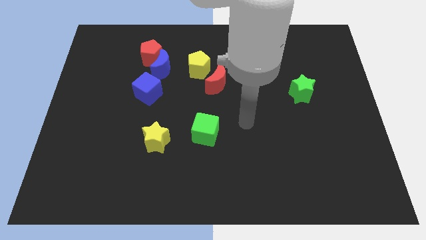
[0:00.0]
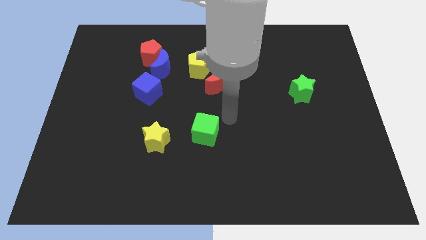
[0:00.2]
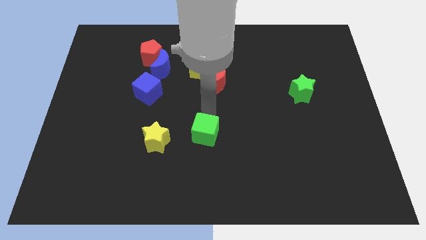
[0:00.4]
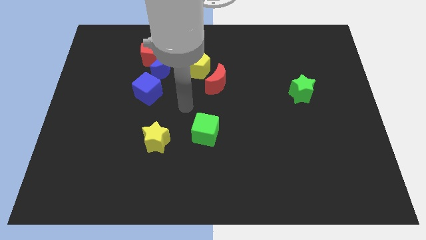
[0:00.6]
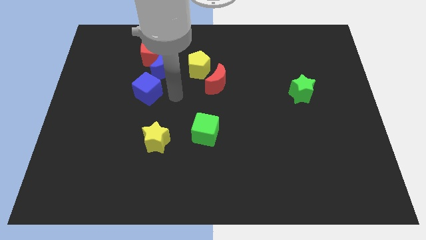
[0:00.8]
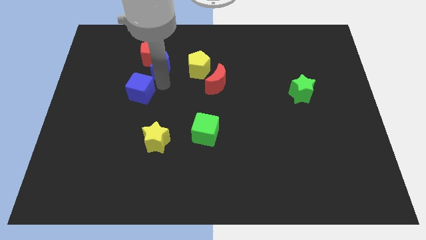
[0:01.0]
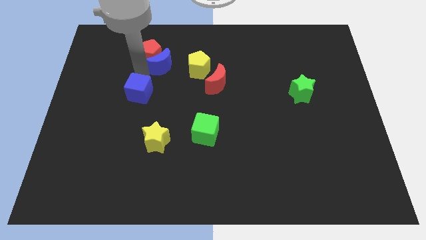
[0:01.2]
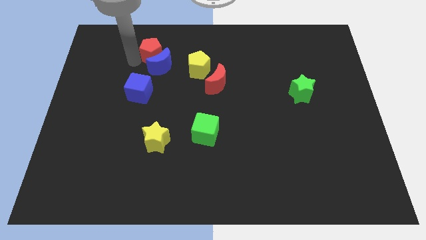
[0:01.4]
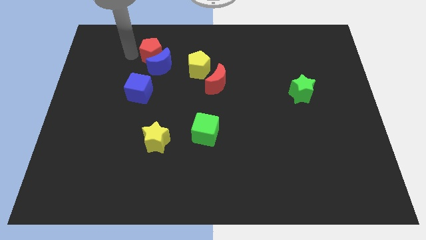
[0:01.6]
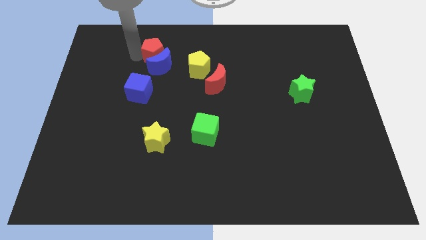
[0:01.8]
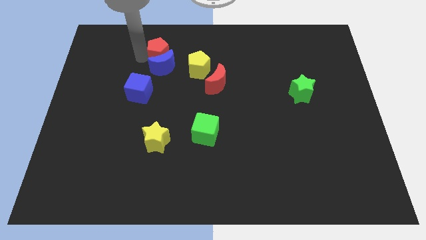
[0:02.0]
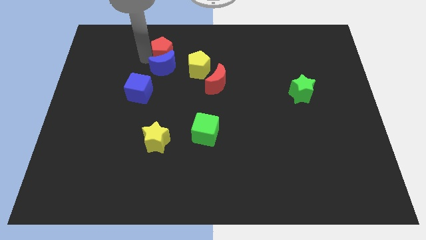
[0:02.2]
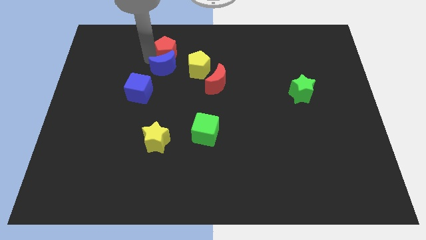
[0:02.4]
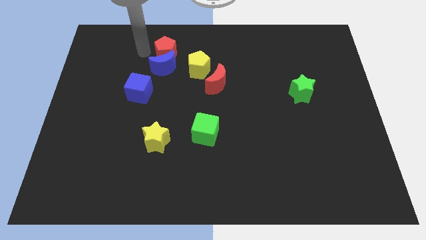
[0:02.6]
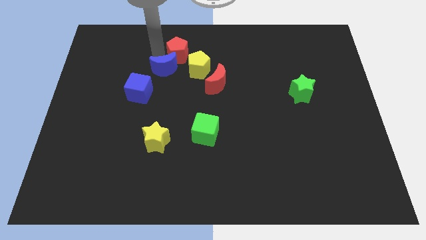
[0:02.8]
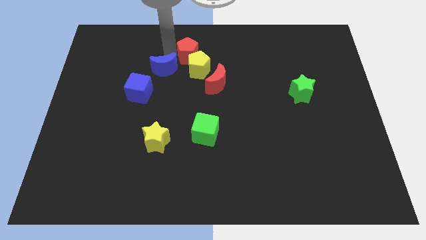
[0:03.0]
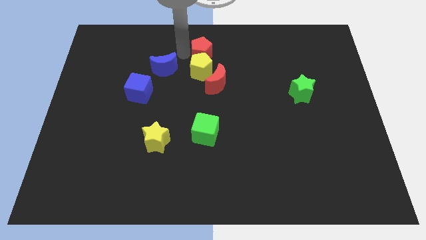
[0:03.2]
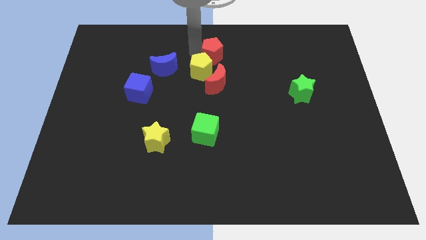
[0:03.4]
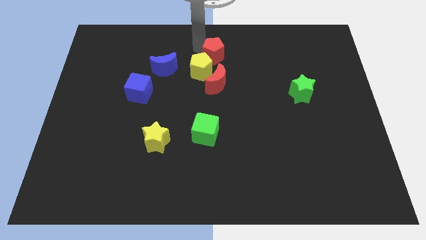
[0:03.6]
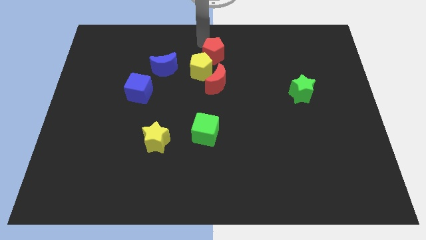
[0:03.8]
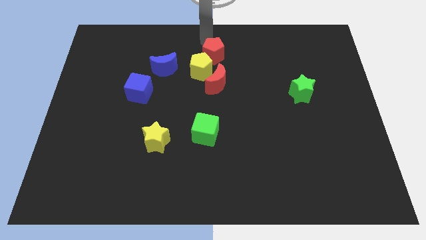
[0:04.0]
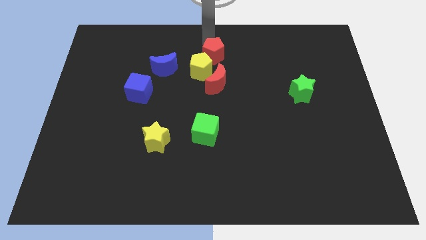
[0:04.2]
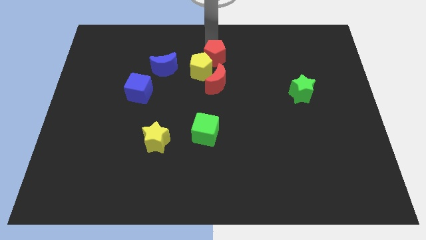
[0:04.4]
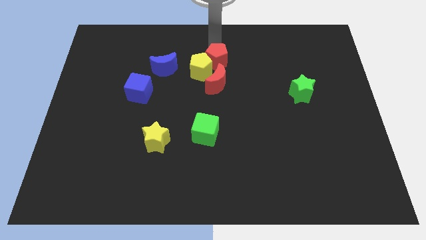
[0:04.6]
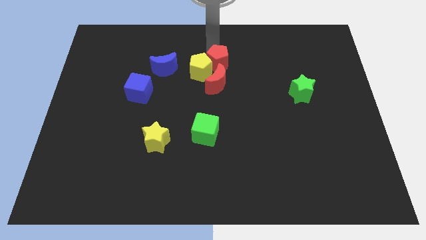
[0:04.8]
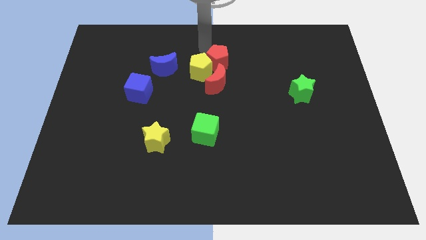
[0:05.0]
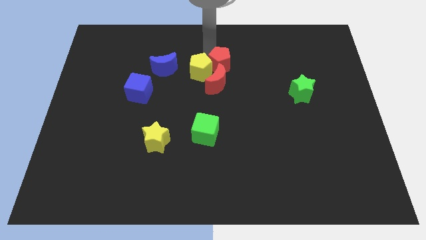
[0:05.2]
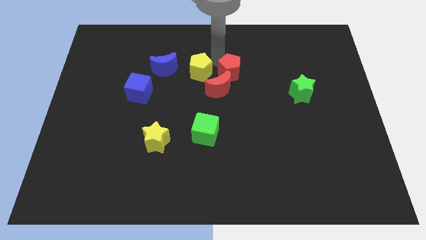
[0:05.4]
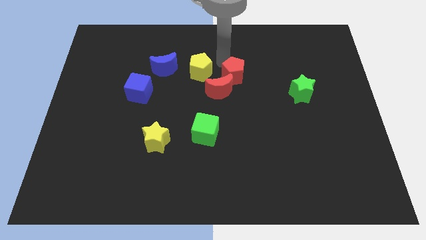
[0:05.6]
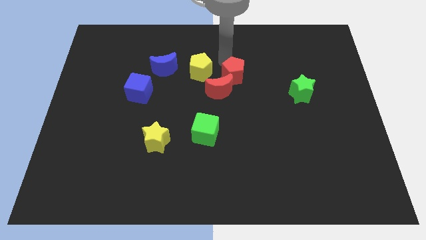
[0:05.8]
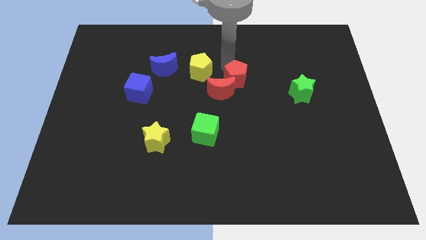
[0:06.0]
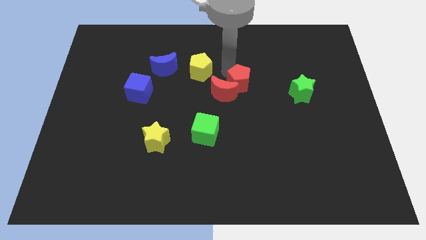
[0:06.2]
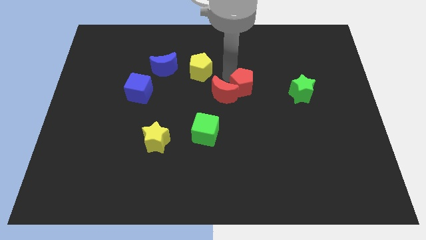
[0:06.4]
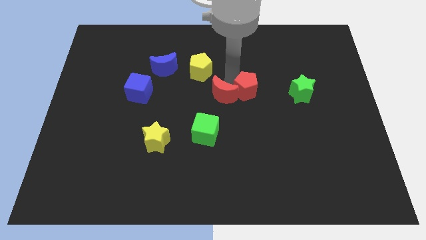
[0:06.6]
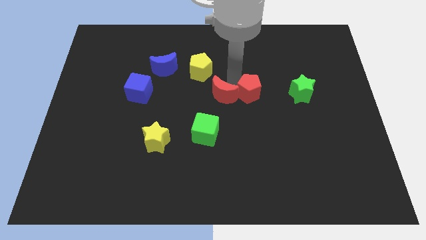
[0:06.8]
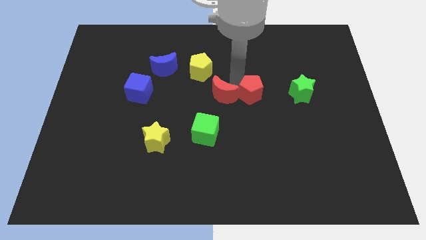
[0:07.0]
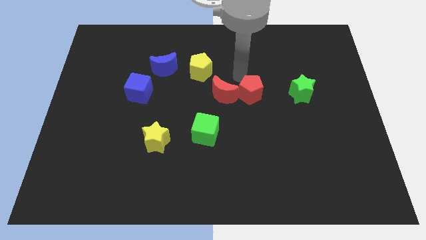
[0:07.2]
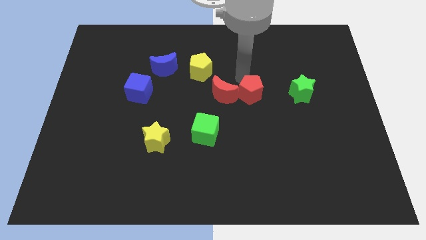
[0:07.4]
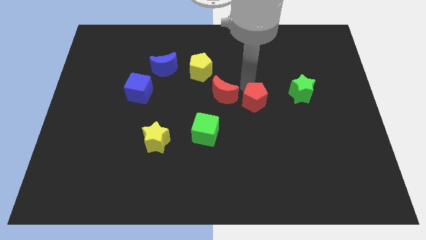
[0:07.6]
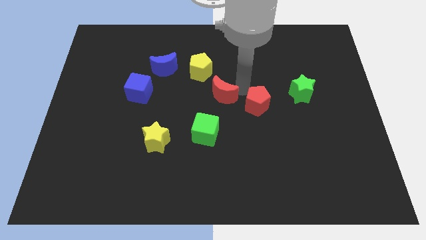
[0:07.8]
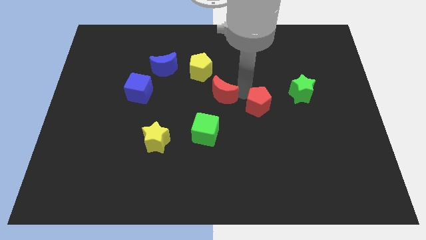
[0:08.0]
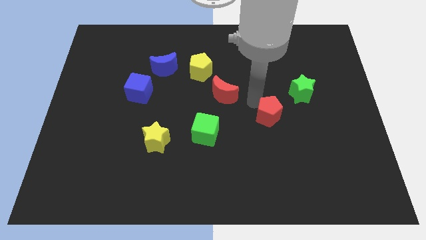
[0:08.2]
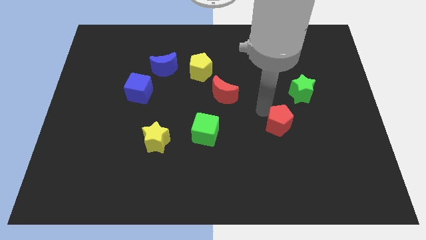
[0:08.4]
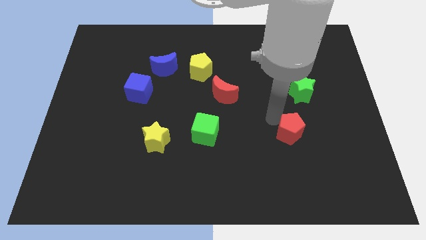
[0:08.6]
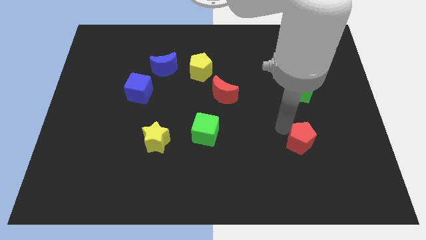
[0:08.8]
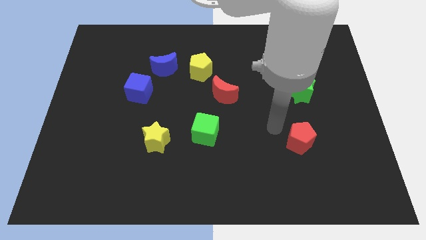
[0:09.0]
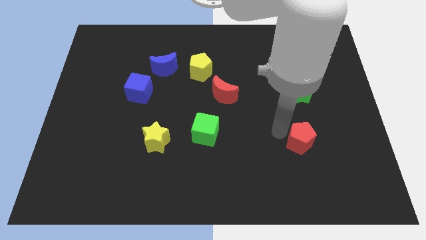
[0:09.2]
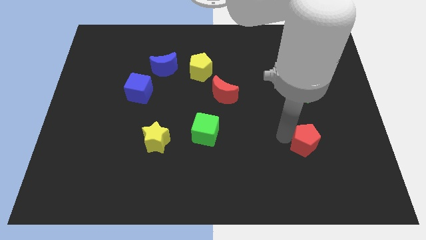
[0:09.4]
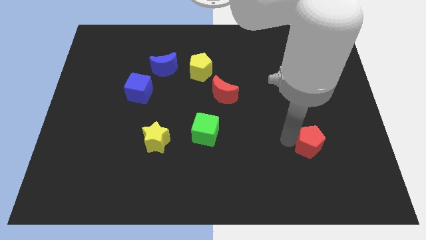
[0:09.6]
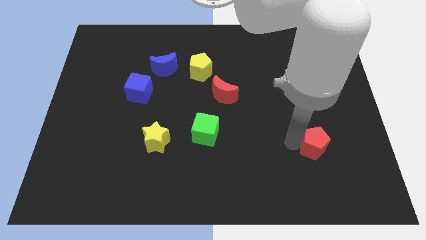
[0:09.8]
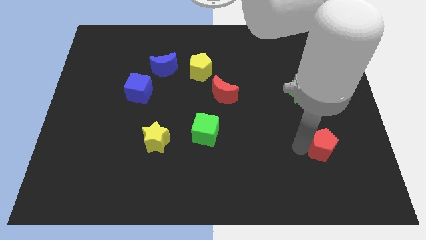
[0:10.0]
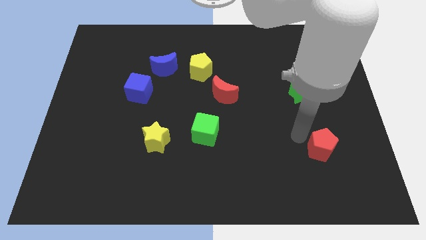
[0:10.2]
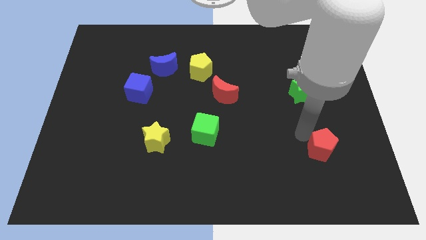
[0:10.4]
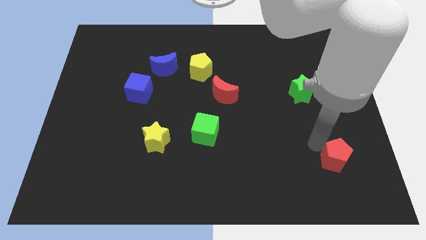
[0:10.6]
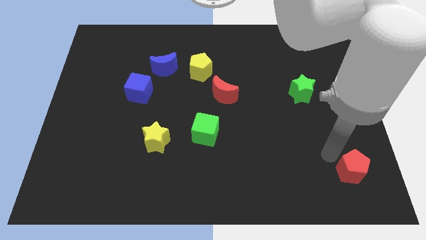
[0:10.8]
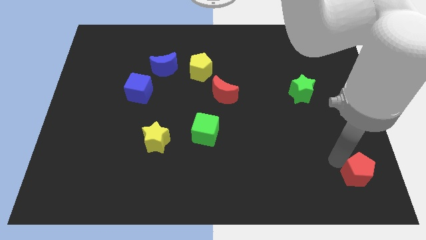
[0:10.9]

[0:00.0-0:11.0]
push the red pentagon to the bottom right of the board

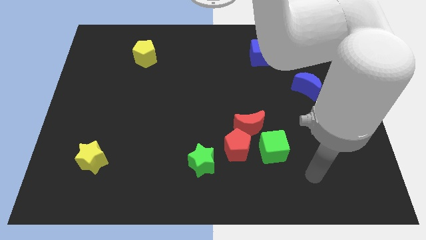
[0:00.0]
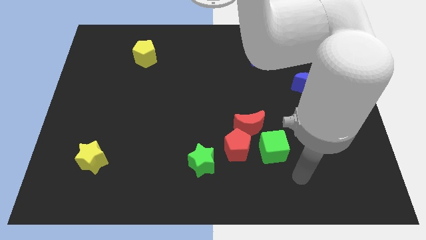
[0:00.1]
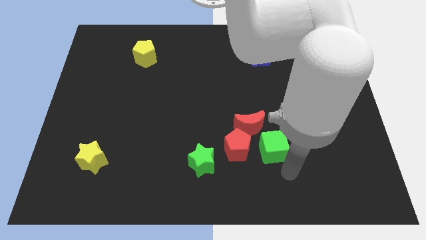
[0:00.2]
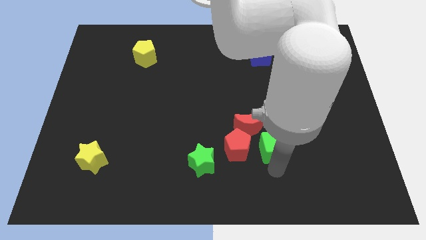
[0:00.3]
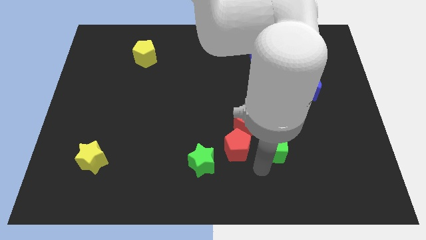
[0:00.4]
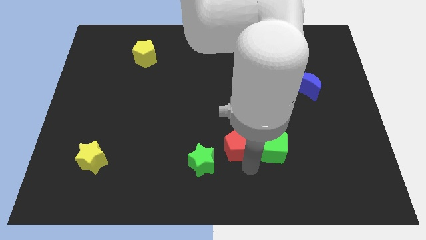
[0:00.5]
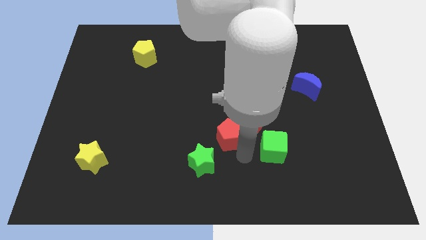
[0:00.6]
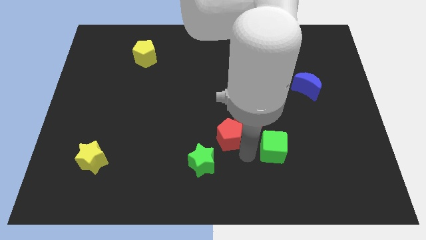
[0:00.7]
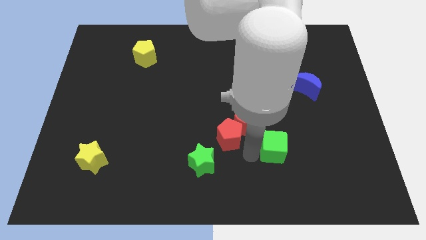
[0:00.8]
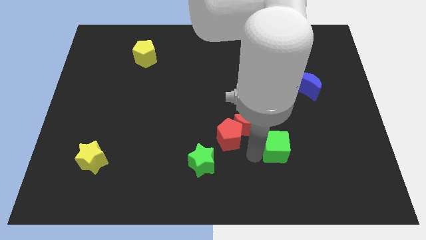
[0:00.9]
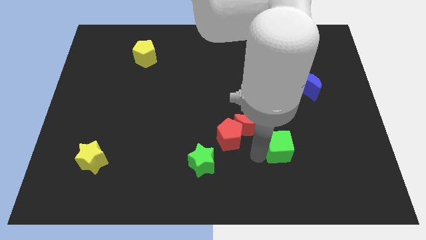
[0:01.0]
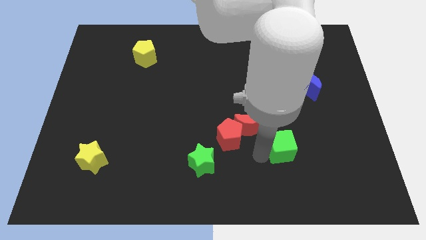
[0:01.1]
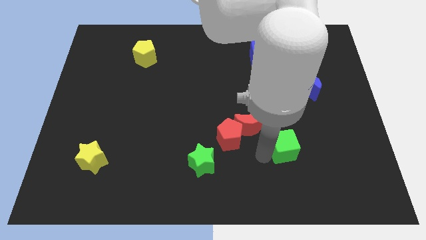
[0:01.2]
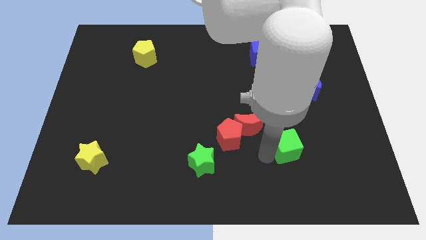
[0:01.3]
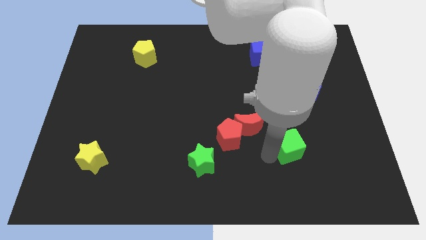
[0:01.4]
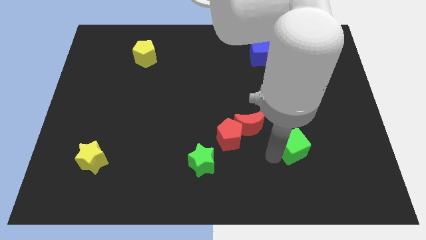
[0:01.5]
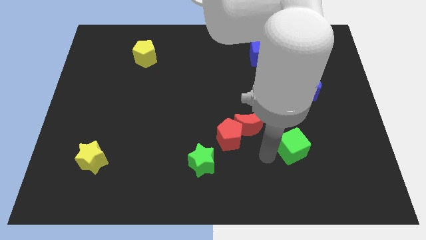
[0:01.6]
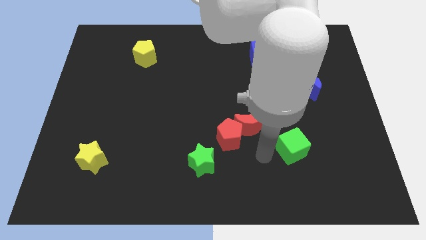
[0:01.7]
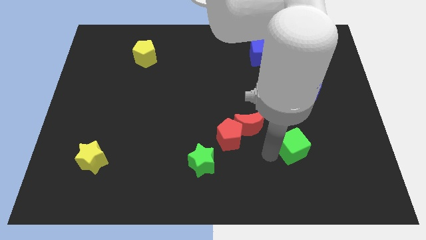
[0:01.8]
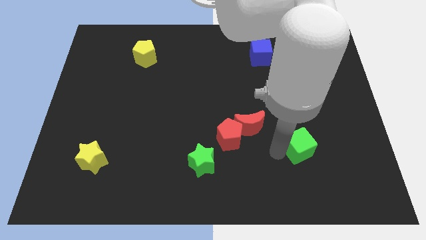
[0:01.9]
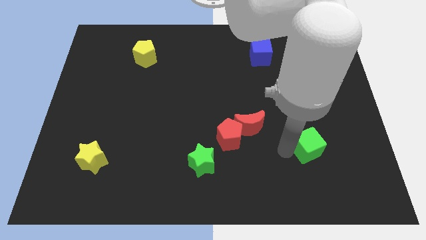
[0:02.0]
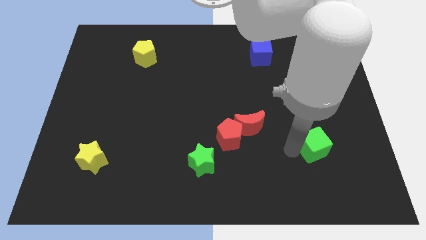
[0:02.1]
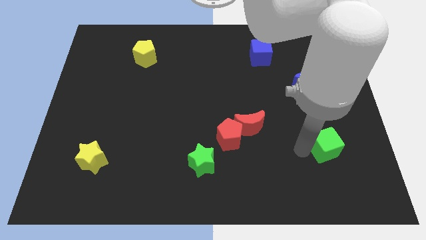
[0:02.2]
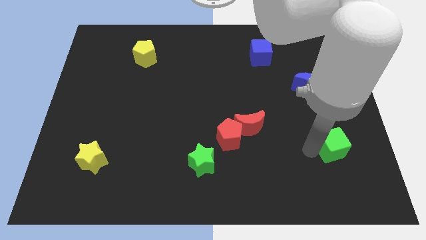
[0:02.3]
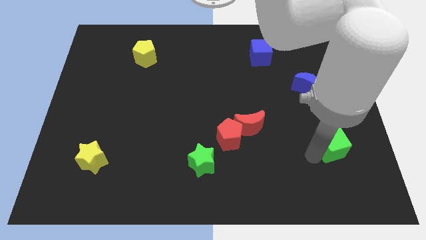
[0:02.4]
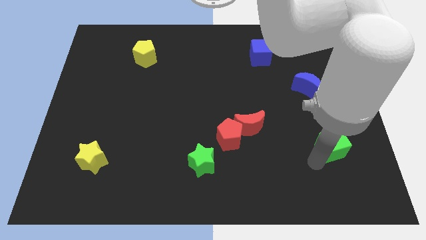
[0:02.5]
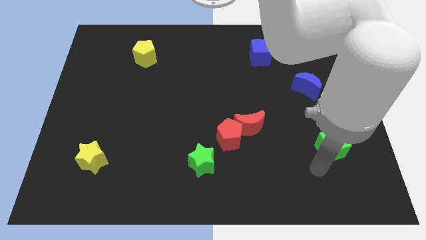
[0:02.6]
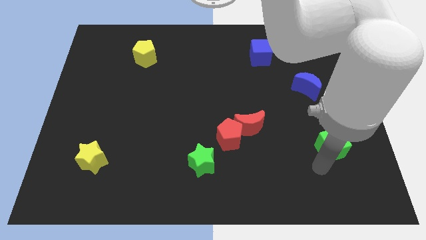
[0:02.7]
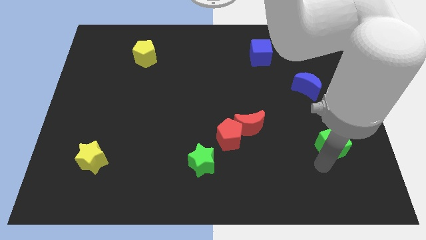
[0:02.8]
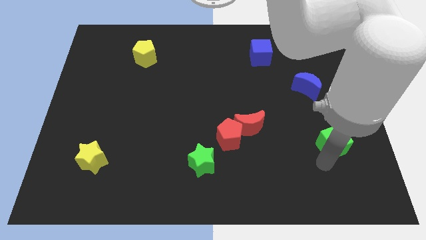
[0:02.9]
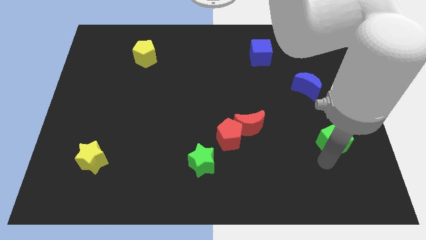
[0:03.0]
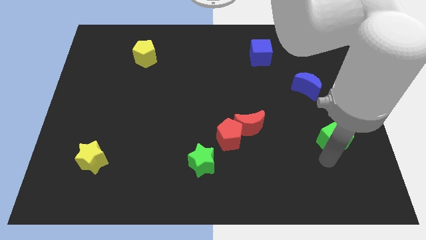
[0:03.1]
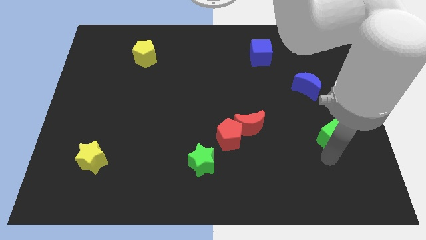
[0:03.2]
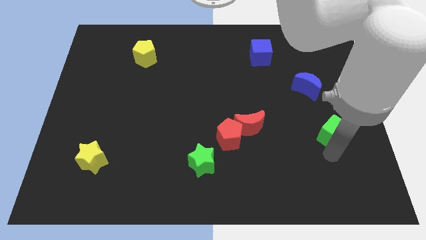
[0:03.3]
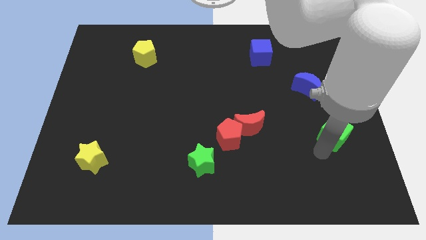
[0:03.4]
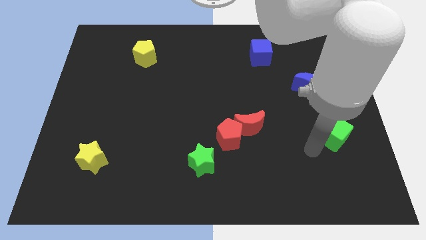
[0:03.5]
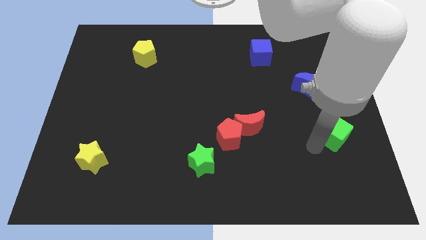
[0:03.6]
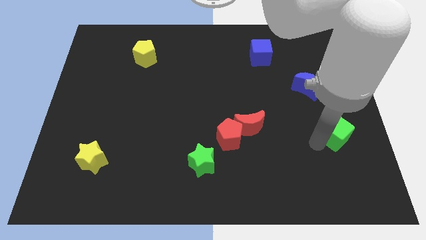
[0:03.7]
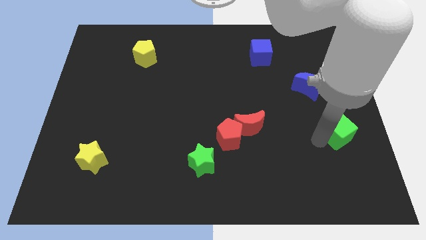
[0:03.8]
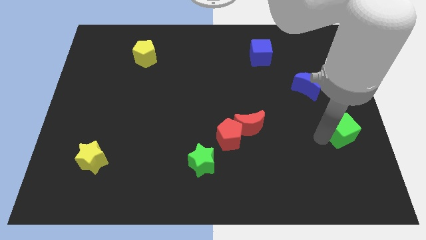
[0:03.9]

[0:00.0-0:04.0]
push the green cube to the right side of the board
